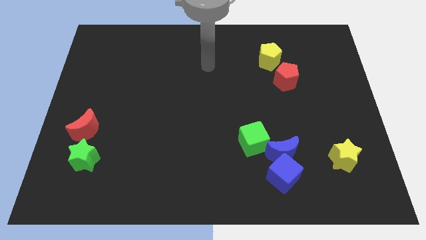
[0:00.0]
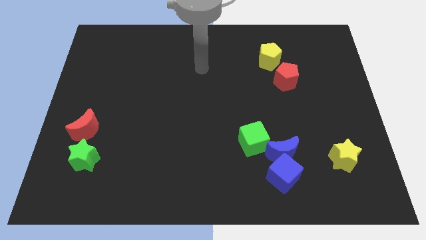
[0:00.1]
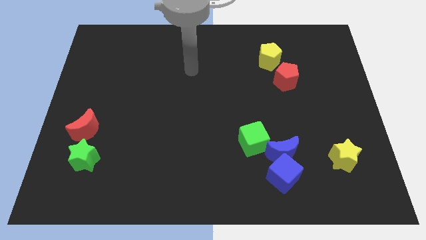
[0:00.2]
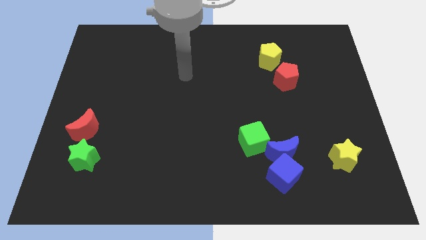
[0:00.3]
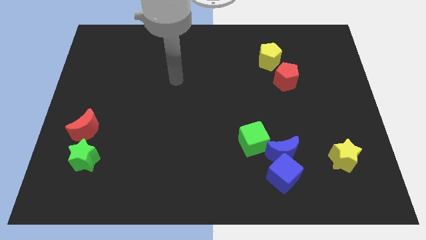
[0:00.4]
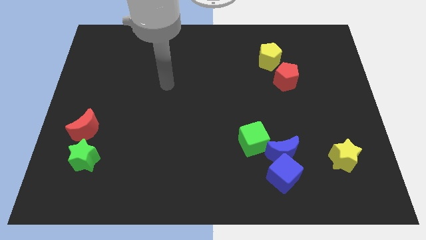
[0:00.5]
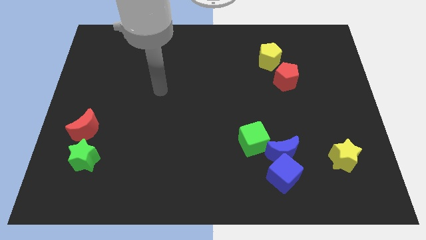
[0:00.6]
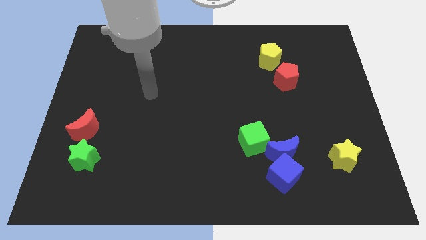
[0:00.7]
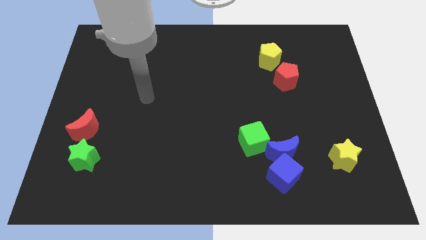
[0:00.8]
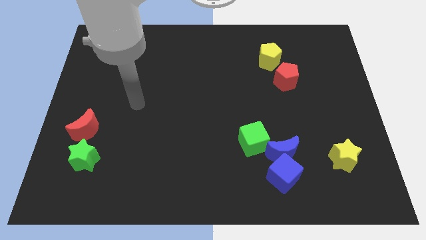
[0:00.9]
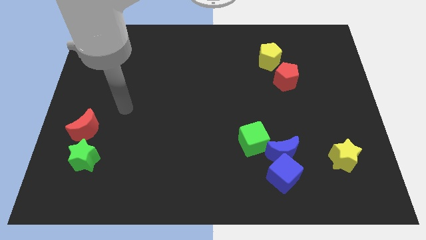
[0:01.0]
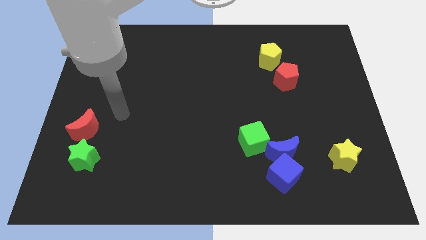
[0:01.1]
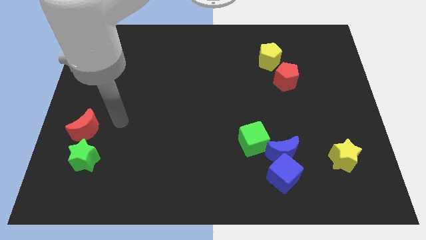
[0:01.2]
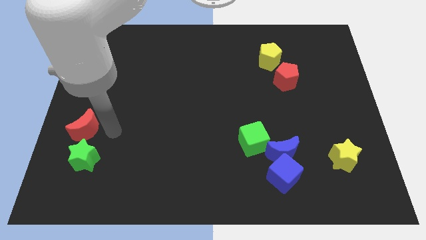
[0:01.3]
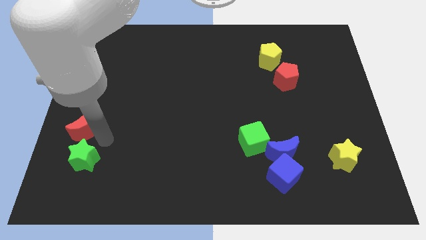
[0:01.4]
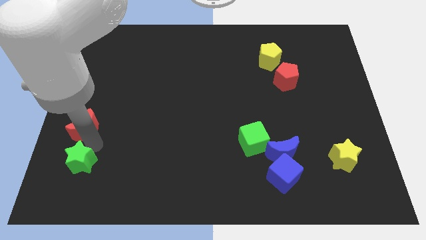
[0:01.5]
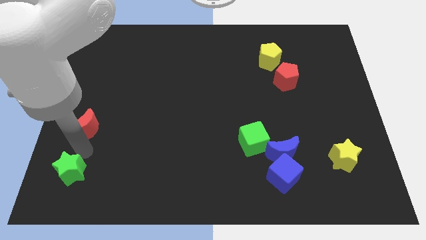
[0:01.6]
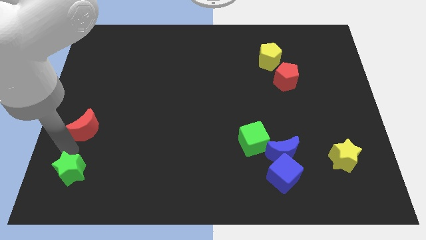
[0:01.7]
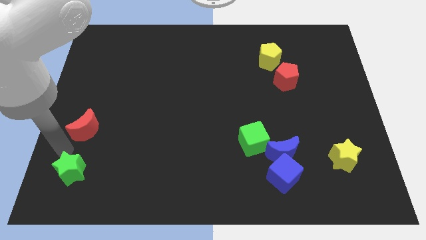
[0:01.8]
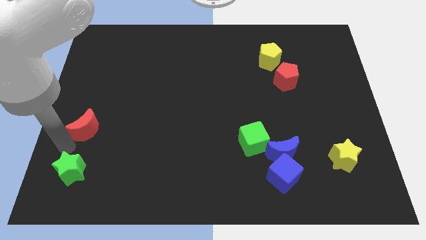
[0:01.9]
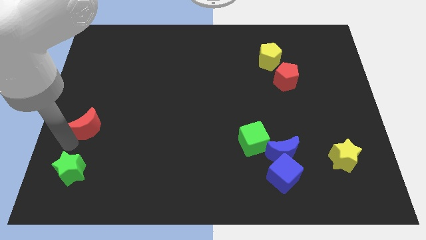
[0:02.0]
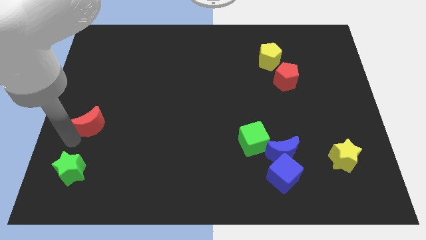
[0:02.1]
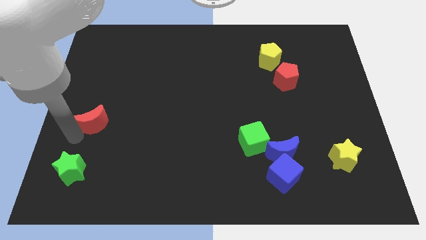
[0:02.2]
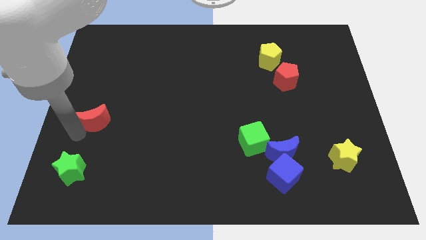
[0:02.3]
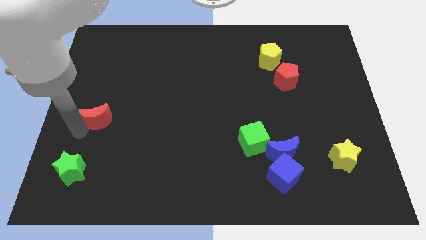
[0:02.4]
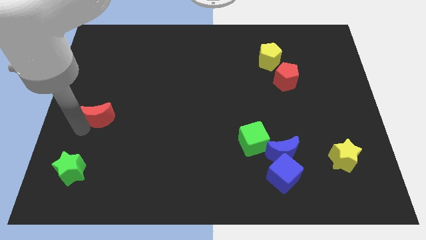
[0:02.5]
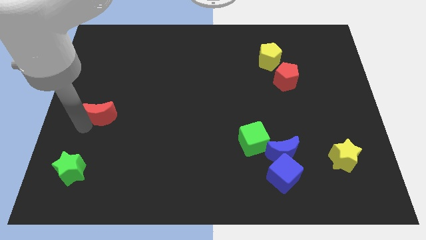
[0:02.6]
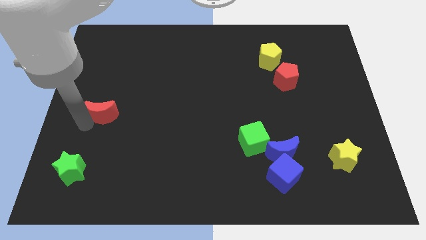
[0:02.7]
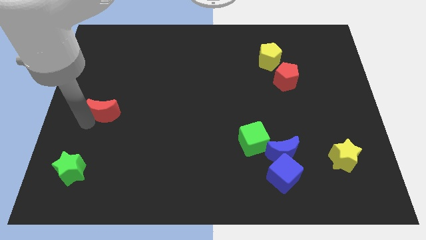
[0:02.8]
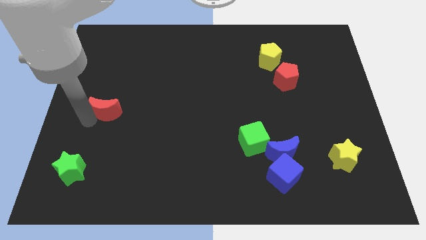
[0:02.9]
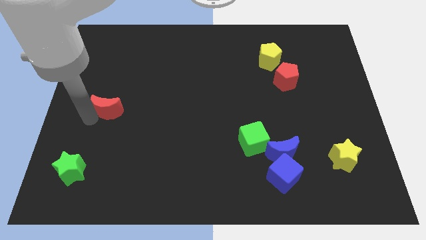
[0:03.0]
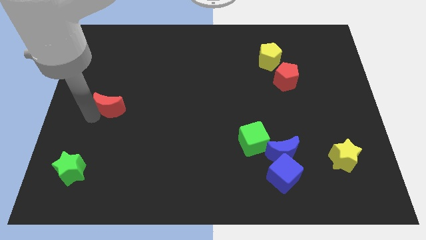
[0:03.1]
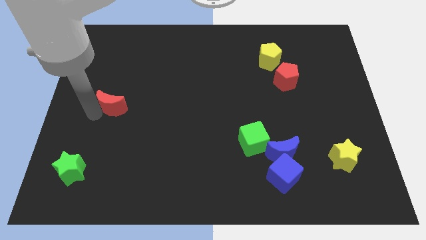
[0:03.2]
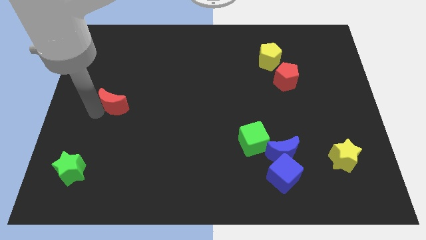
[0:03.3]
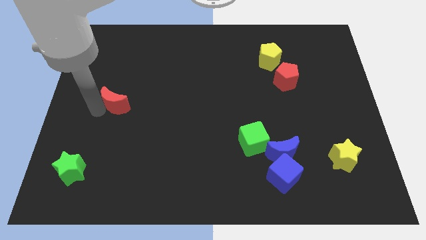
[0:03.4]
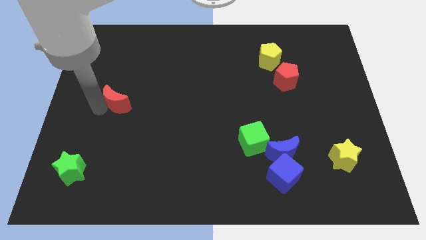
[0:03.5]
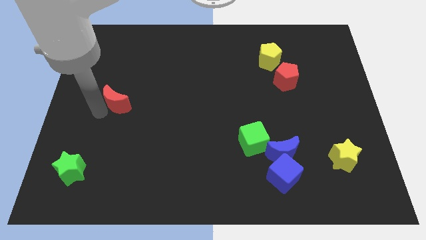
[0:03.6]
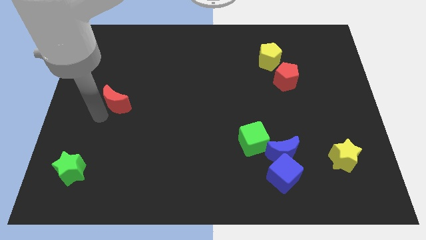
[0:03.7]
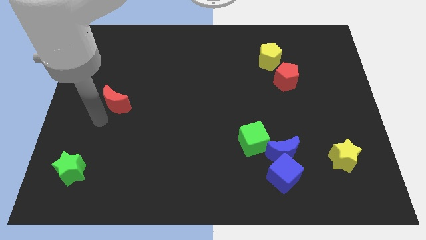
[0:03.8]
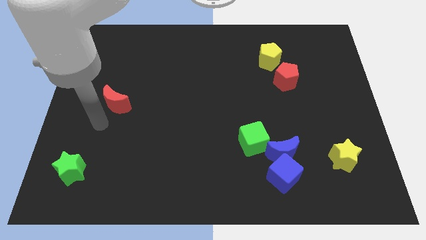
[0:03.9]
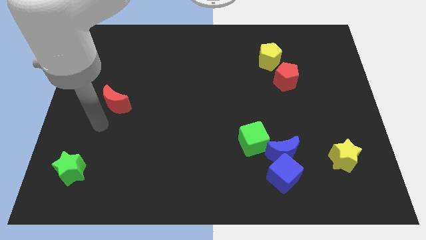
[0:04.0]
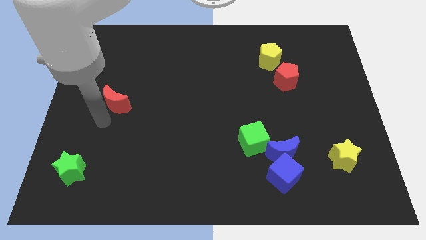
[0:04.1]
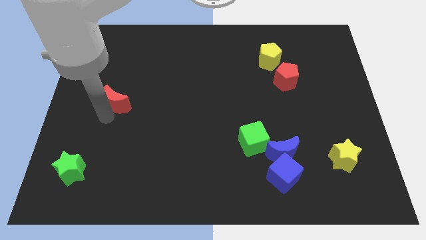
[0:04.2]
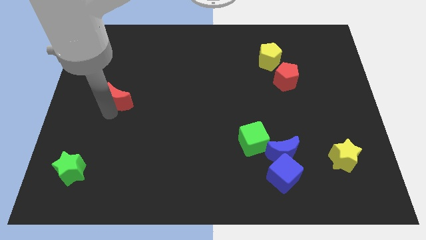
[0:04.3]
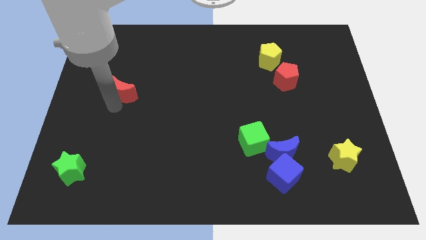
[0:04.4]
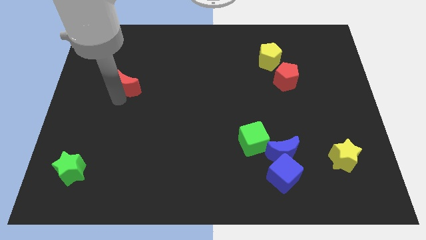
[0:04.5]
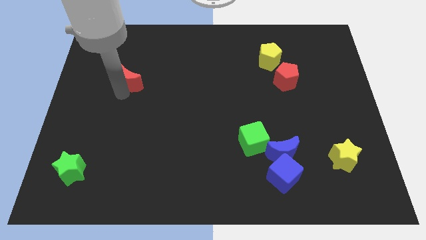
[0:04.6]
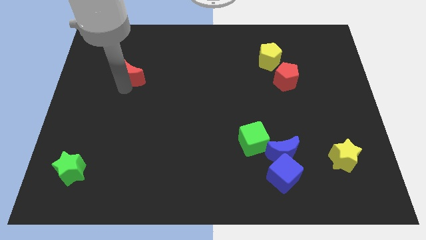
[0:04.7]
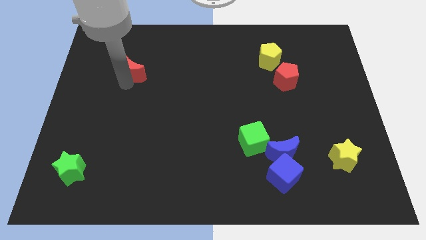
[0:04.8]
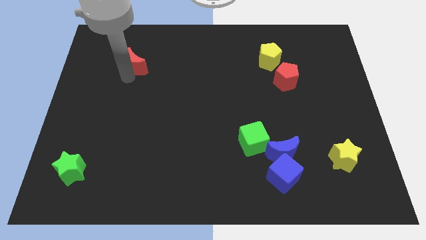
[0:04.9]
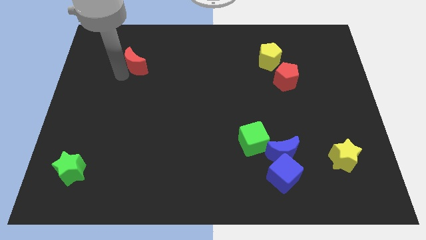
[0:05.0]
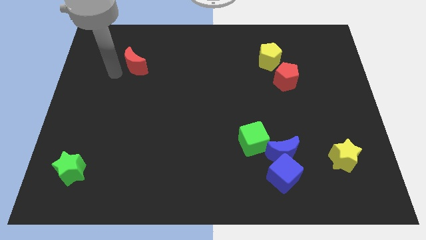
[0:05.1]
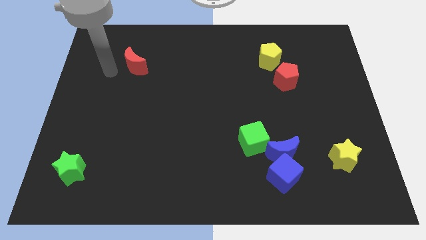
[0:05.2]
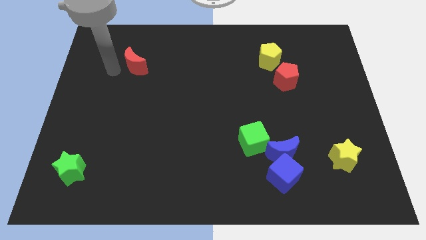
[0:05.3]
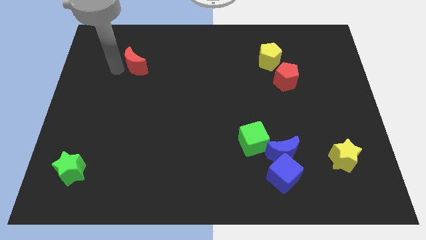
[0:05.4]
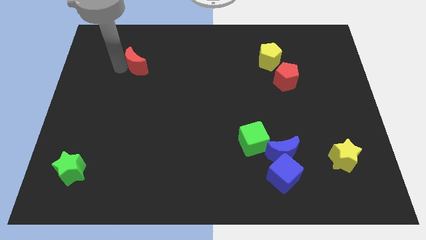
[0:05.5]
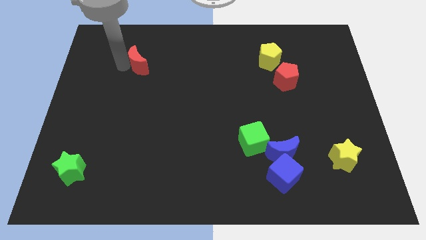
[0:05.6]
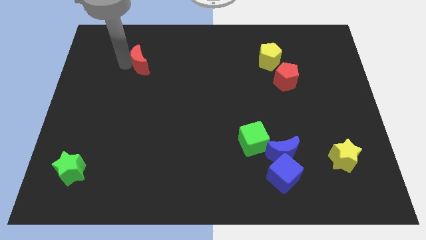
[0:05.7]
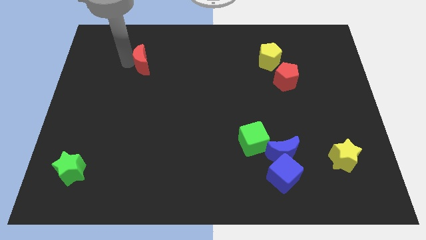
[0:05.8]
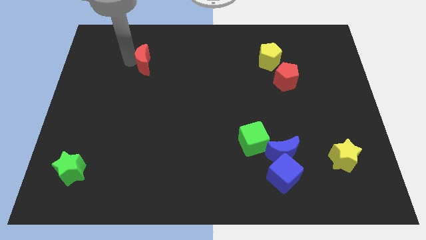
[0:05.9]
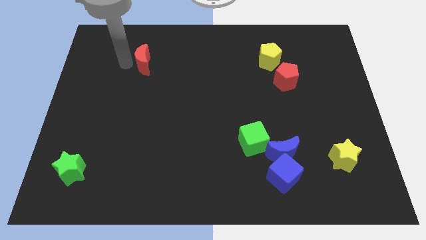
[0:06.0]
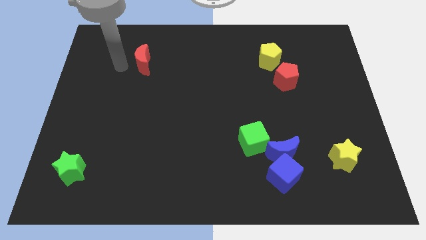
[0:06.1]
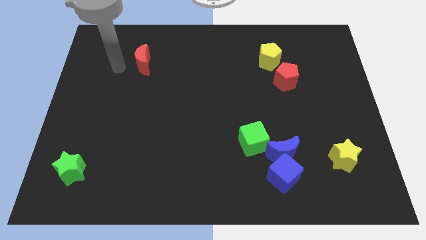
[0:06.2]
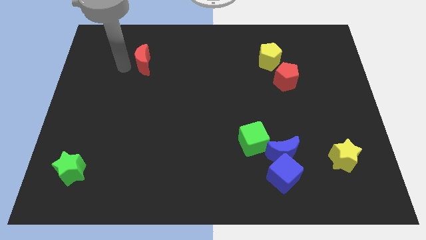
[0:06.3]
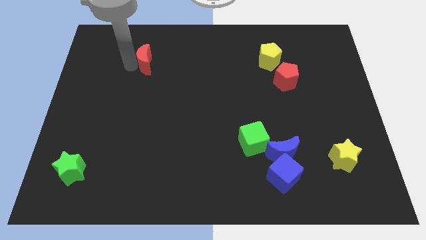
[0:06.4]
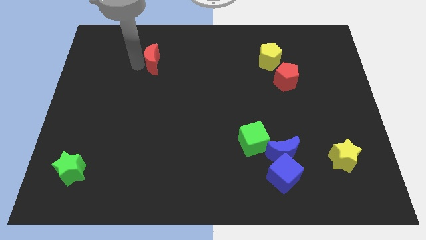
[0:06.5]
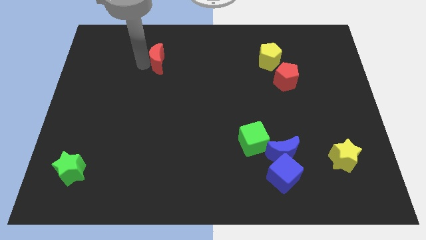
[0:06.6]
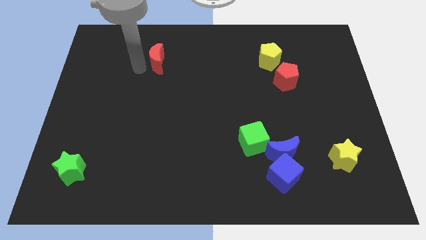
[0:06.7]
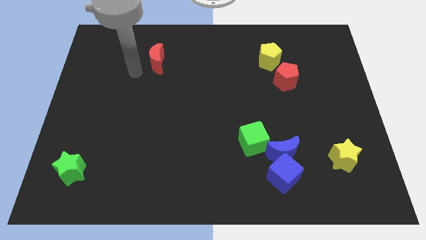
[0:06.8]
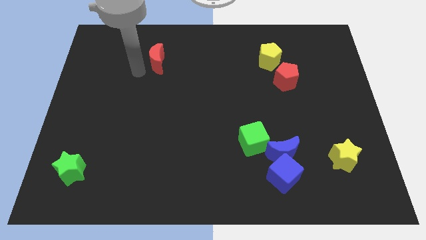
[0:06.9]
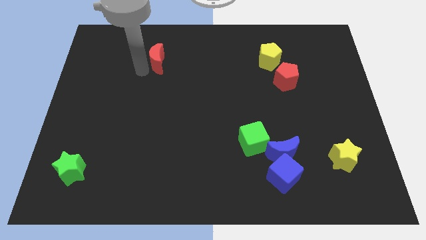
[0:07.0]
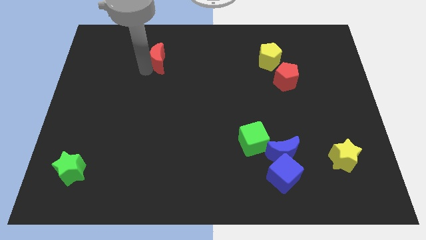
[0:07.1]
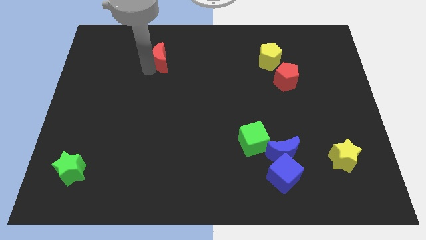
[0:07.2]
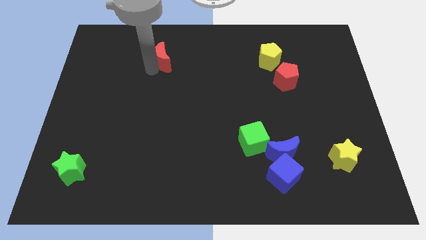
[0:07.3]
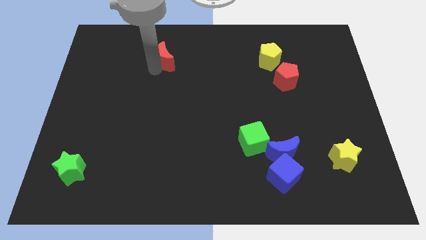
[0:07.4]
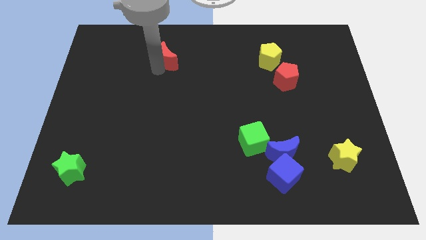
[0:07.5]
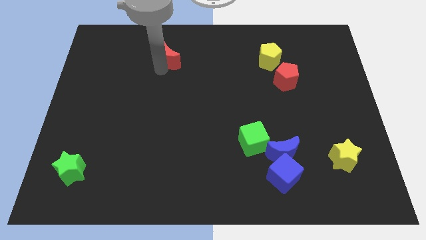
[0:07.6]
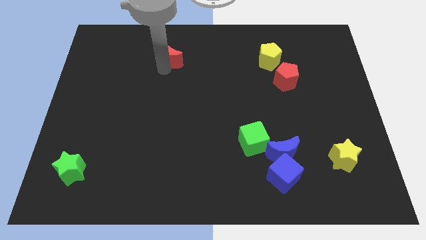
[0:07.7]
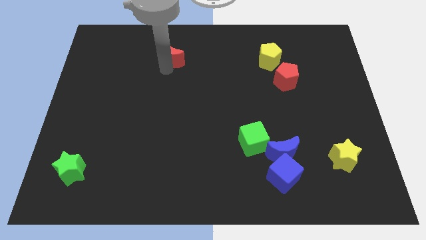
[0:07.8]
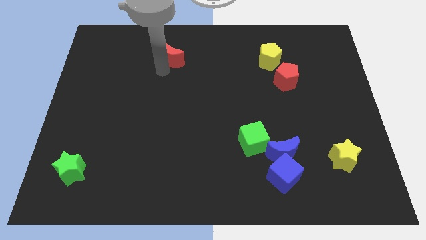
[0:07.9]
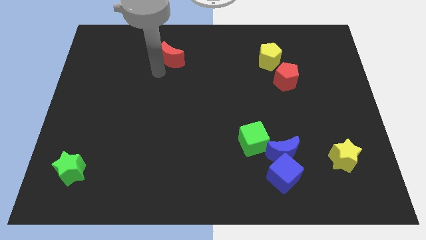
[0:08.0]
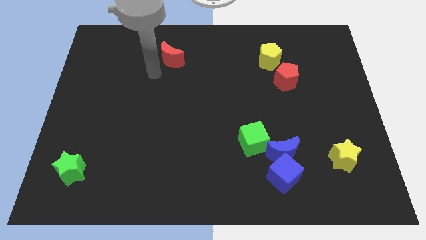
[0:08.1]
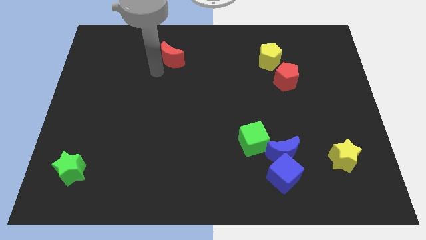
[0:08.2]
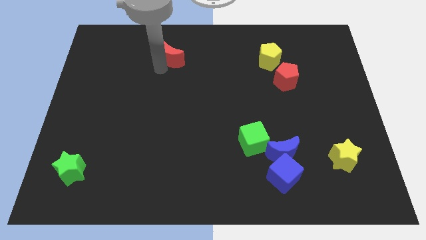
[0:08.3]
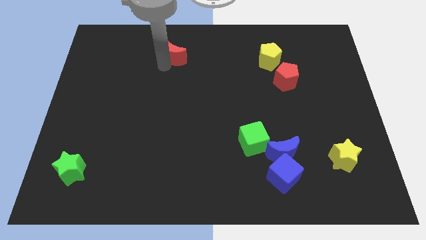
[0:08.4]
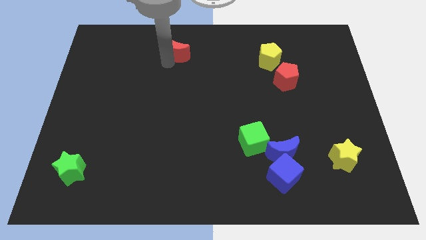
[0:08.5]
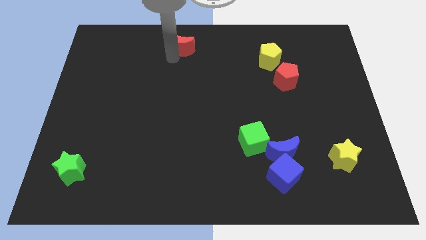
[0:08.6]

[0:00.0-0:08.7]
slide the red moon to the top side
